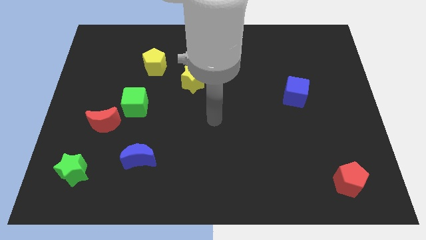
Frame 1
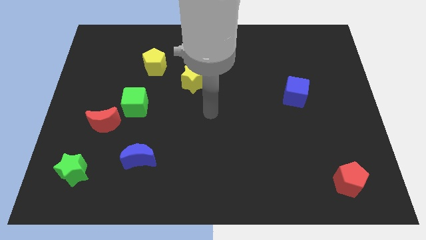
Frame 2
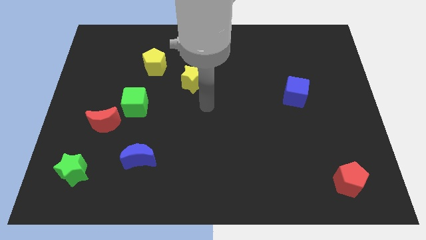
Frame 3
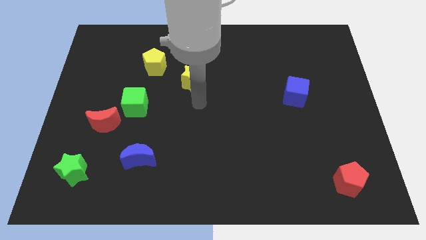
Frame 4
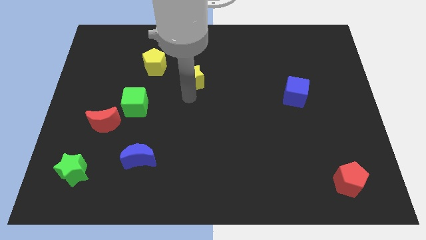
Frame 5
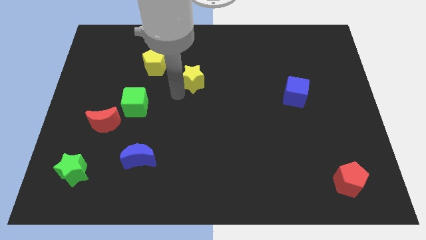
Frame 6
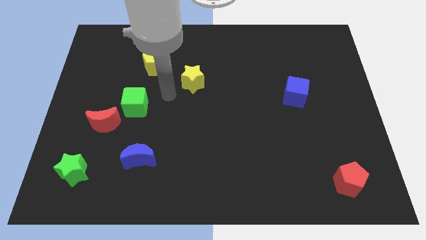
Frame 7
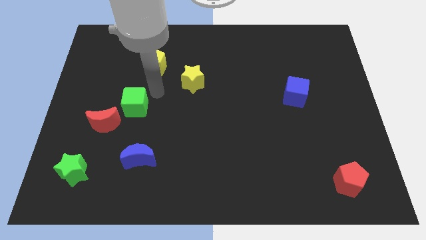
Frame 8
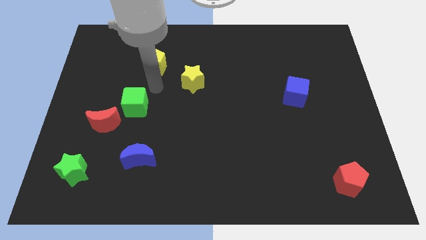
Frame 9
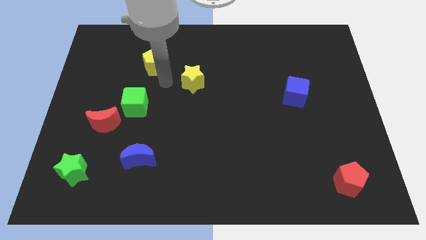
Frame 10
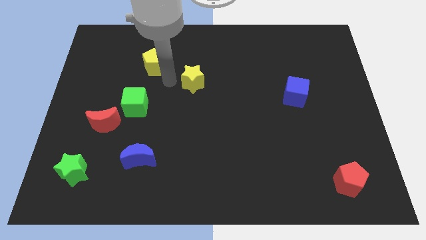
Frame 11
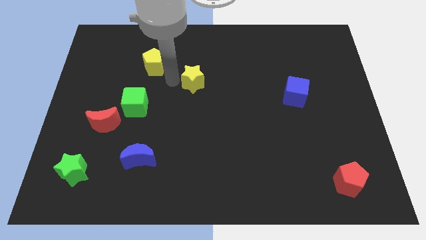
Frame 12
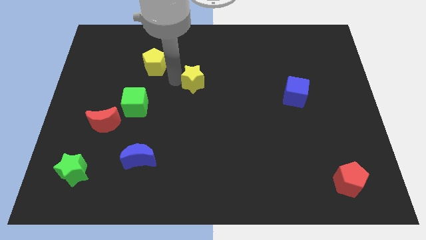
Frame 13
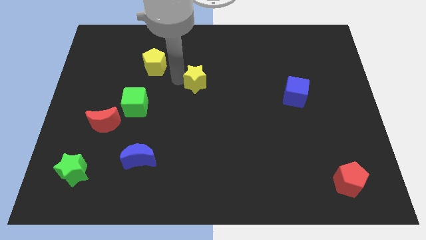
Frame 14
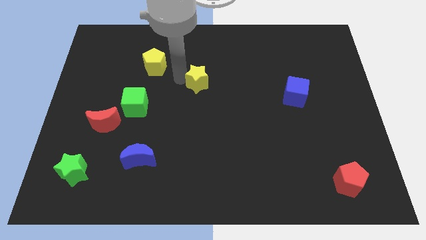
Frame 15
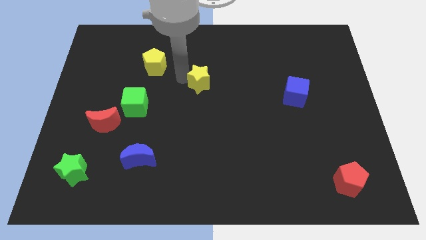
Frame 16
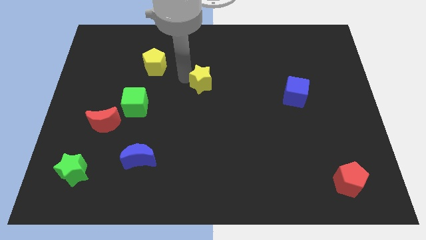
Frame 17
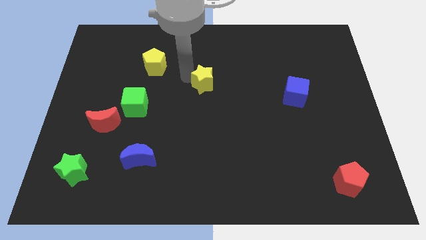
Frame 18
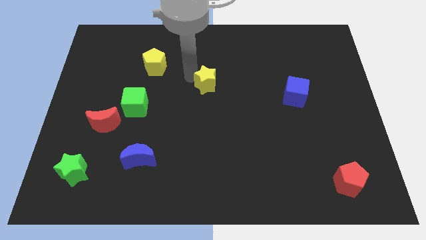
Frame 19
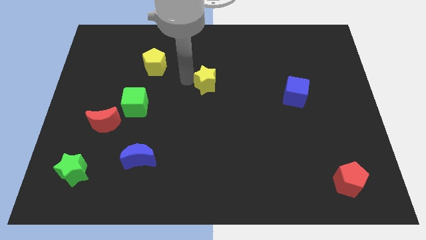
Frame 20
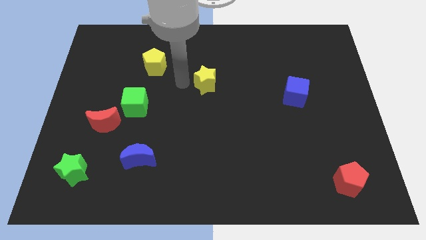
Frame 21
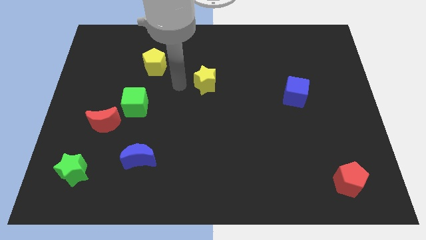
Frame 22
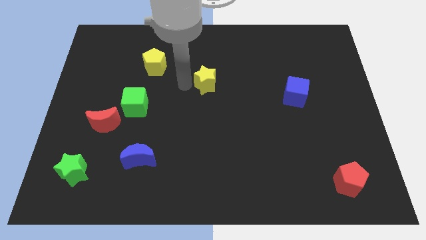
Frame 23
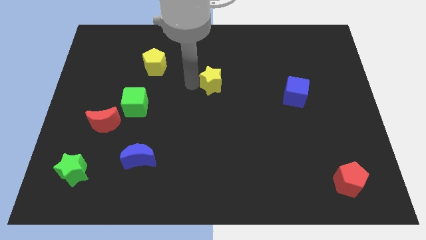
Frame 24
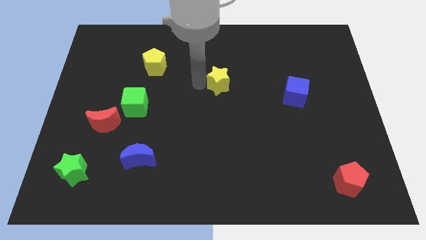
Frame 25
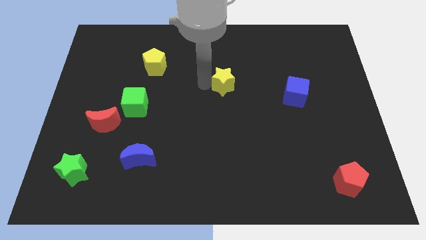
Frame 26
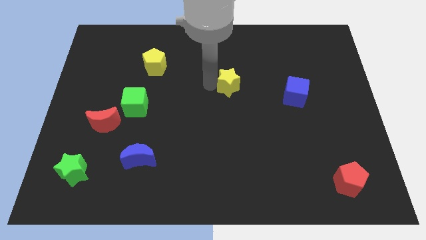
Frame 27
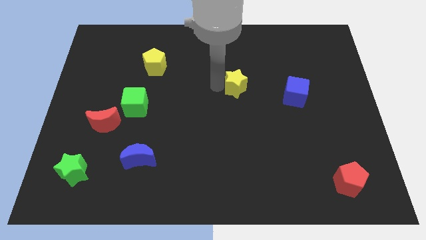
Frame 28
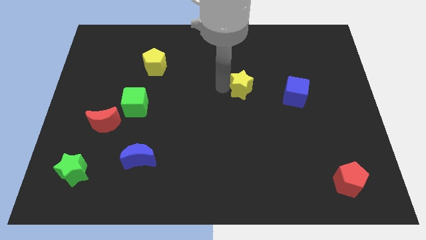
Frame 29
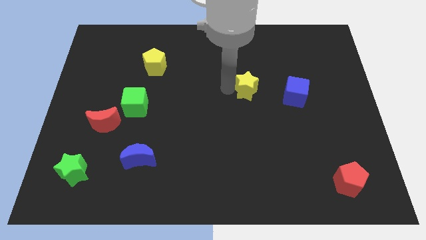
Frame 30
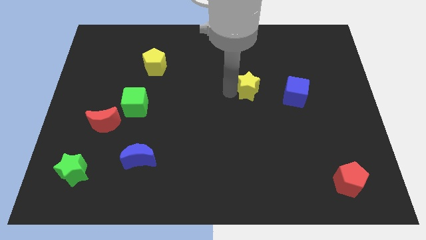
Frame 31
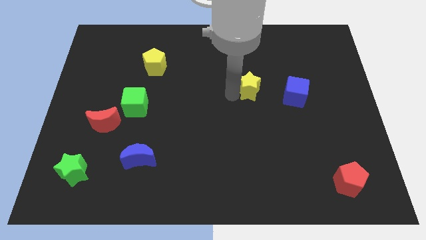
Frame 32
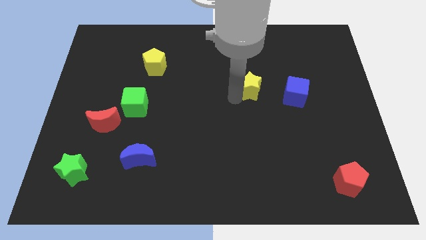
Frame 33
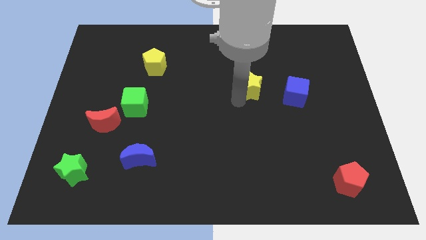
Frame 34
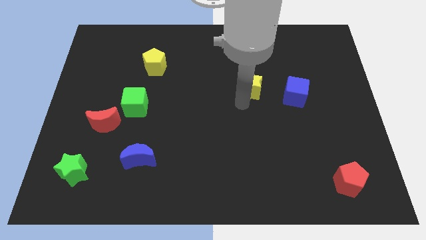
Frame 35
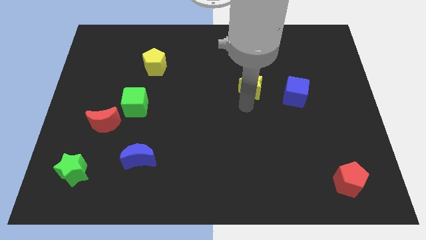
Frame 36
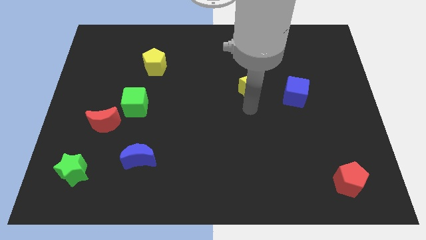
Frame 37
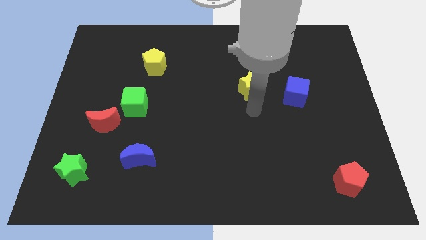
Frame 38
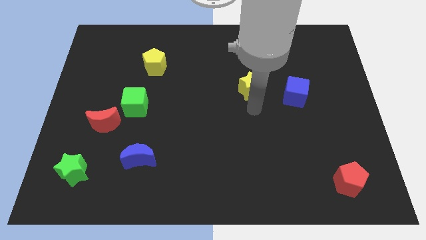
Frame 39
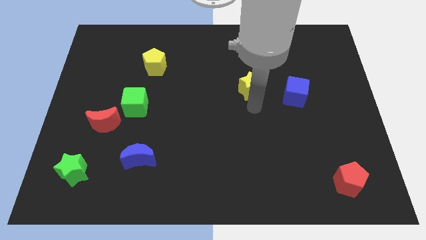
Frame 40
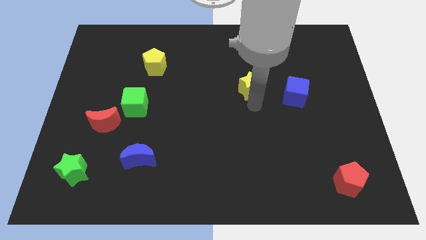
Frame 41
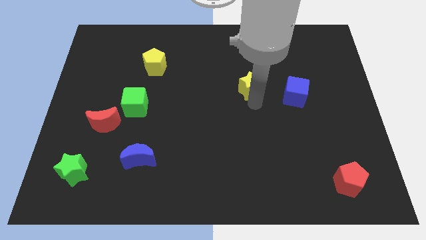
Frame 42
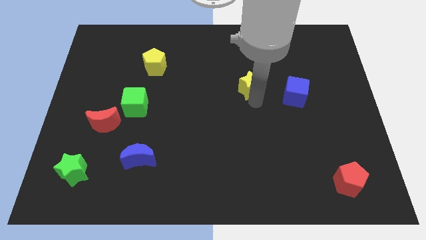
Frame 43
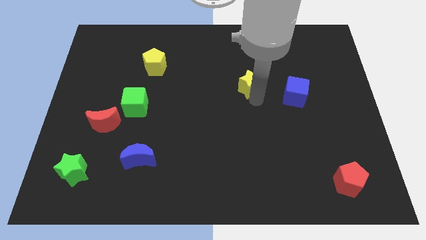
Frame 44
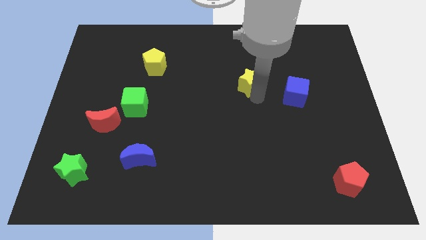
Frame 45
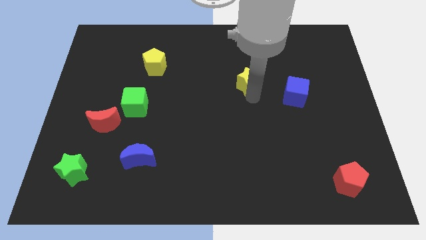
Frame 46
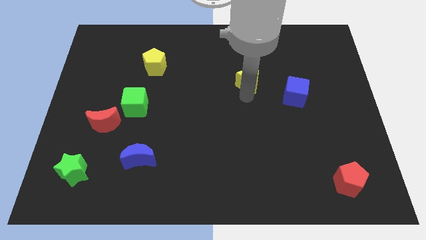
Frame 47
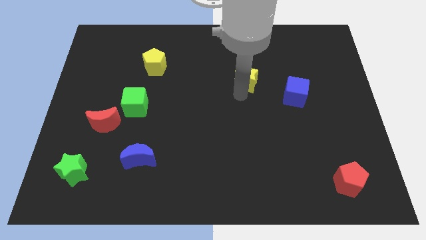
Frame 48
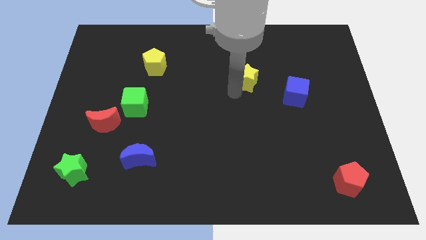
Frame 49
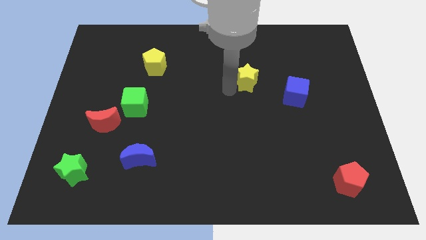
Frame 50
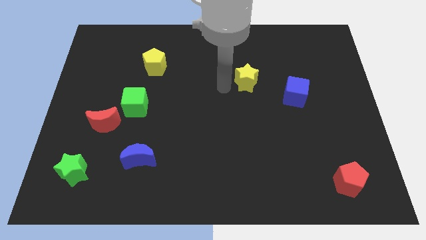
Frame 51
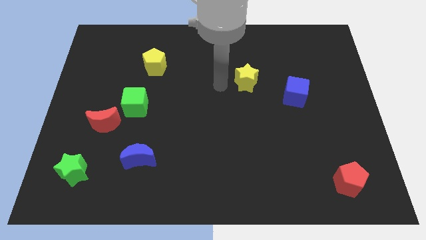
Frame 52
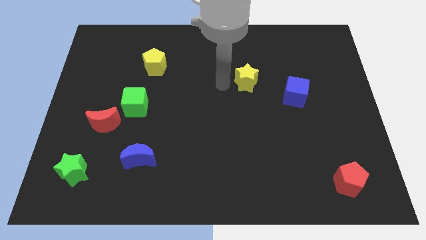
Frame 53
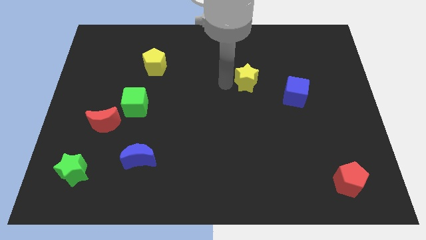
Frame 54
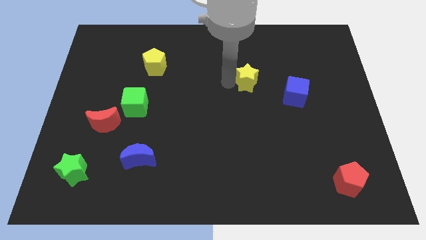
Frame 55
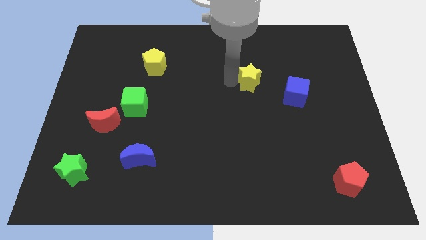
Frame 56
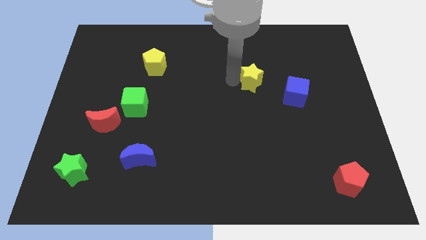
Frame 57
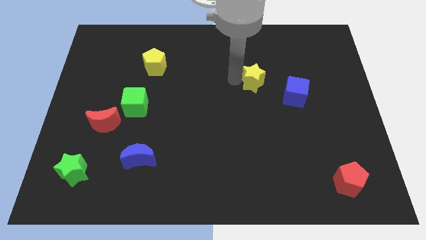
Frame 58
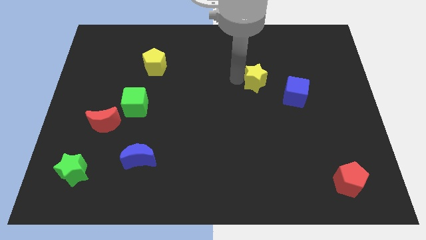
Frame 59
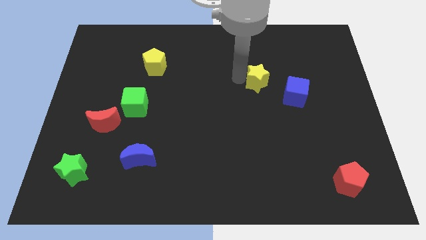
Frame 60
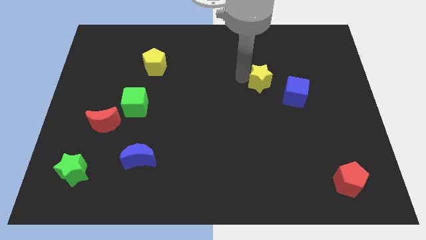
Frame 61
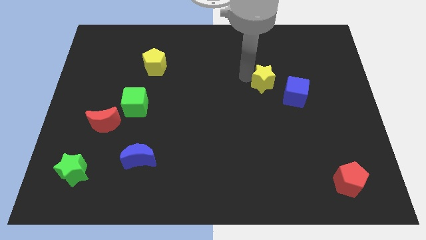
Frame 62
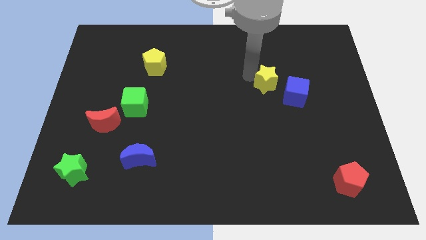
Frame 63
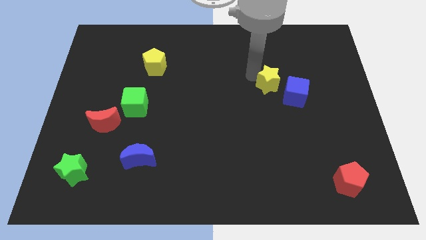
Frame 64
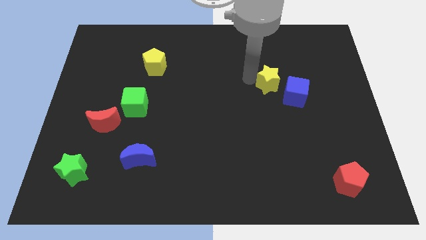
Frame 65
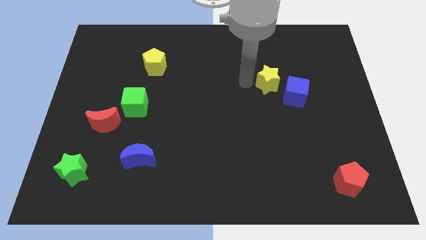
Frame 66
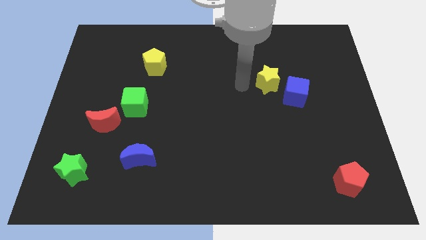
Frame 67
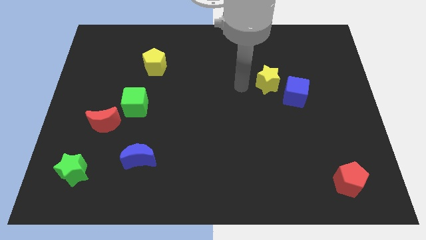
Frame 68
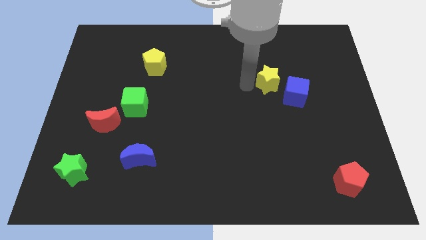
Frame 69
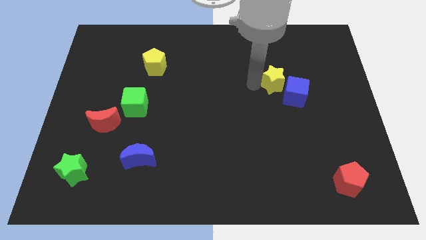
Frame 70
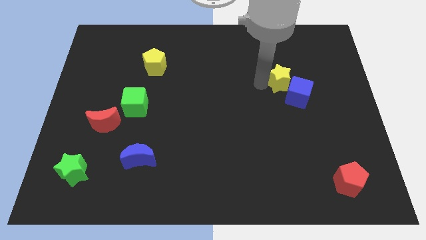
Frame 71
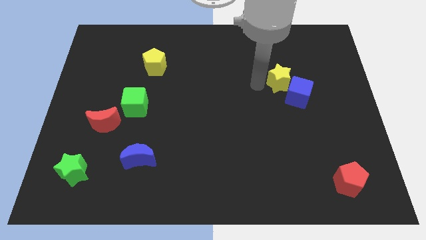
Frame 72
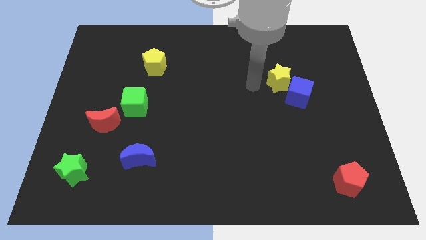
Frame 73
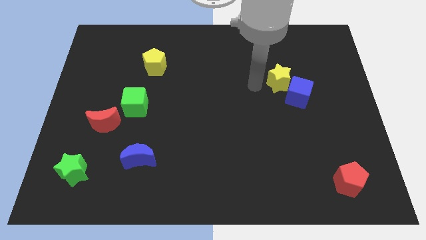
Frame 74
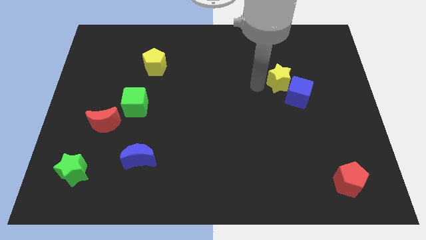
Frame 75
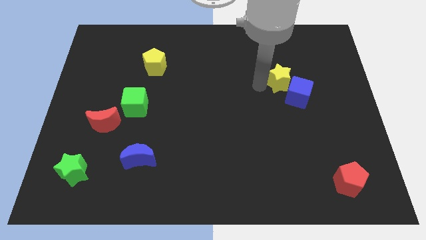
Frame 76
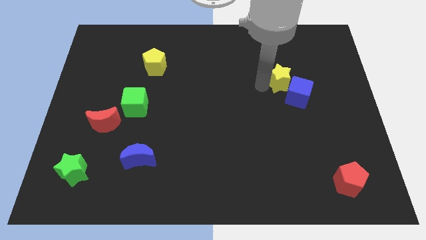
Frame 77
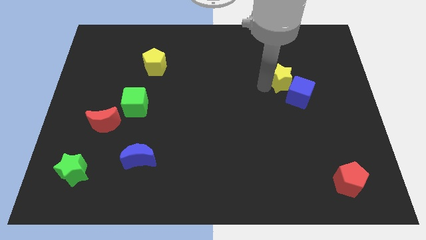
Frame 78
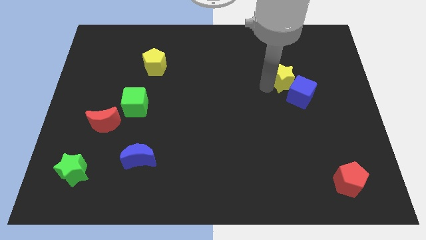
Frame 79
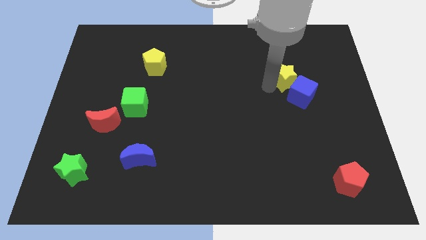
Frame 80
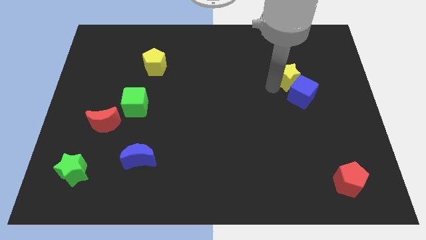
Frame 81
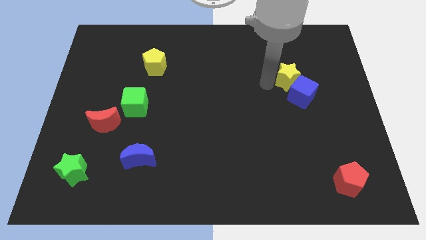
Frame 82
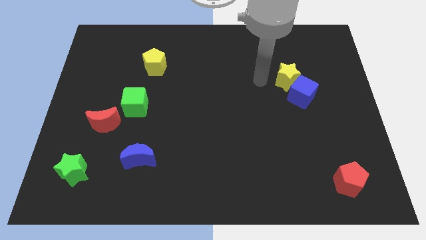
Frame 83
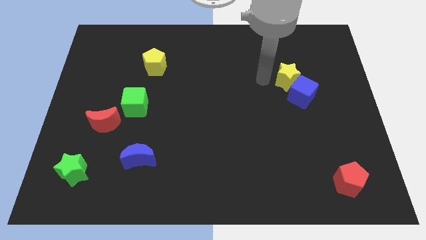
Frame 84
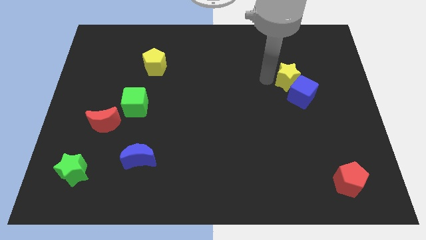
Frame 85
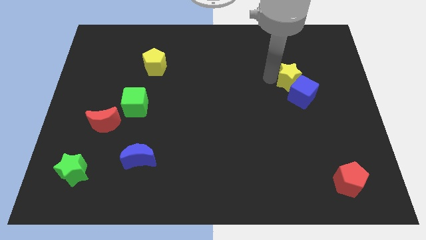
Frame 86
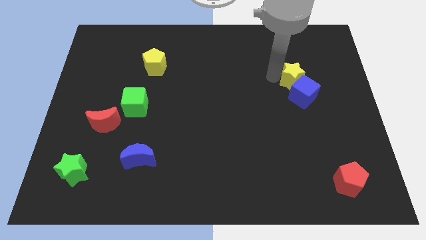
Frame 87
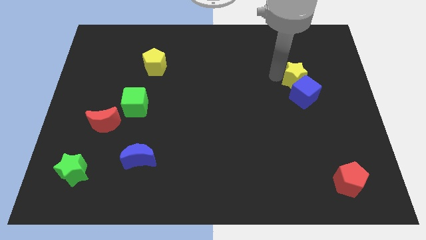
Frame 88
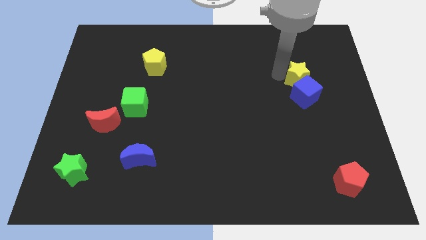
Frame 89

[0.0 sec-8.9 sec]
push the yellow star to the top right side of the blue cube
